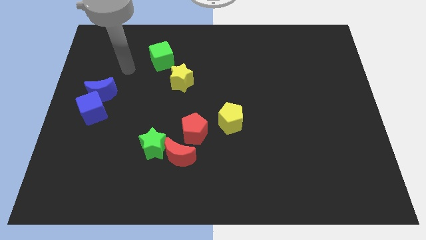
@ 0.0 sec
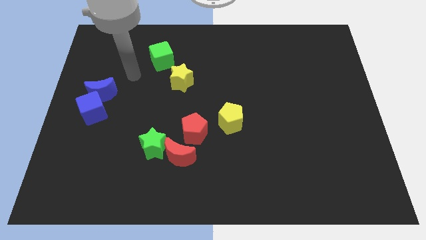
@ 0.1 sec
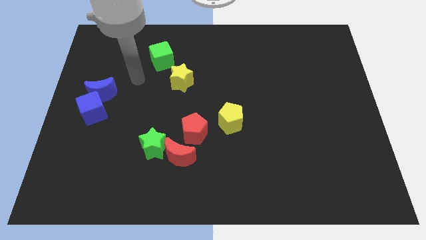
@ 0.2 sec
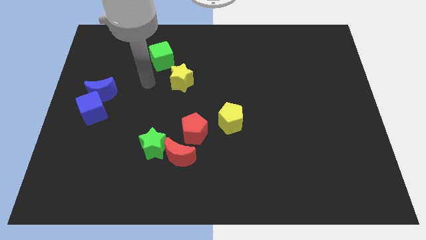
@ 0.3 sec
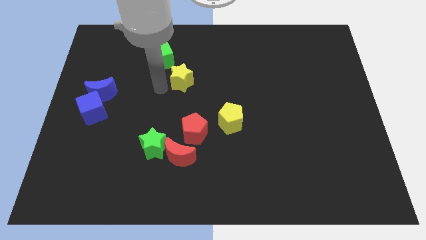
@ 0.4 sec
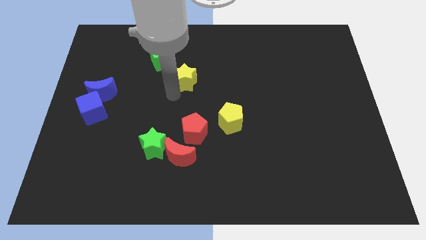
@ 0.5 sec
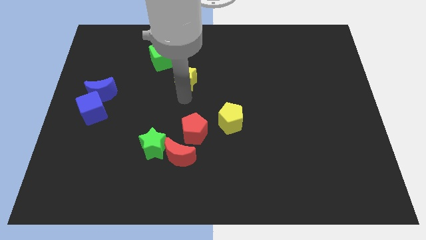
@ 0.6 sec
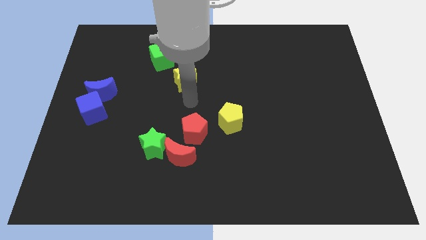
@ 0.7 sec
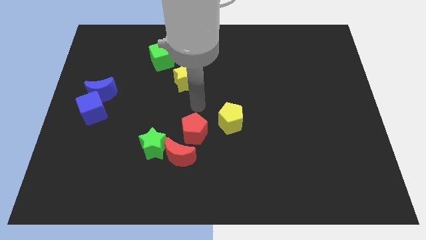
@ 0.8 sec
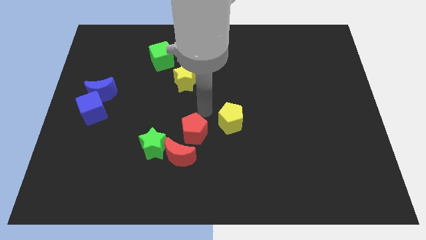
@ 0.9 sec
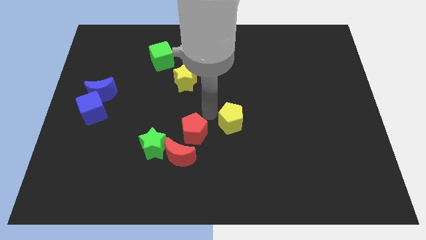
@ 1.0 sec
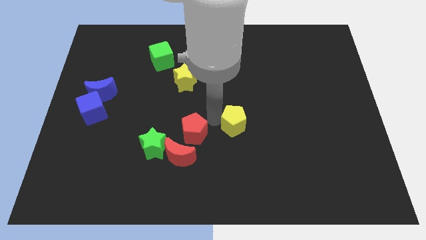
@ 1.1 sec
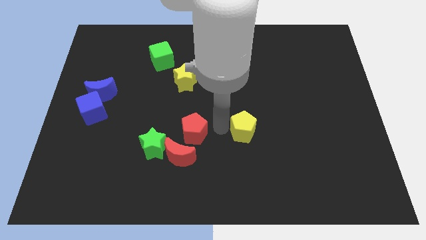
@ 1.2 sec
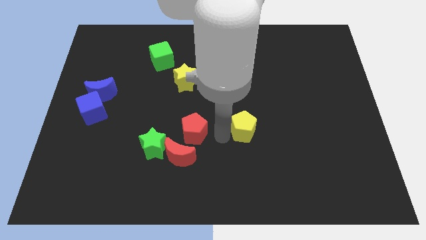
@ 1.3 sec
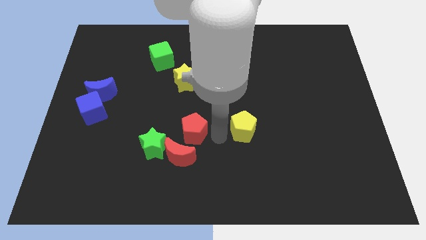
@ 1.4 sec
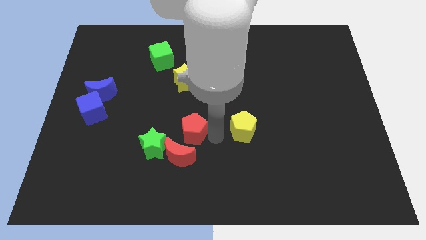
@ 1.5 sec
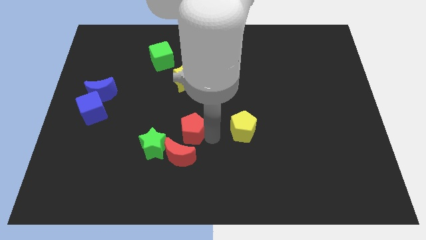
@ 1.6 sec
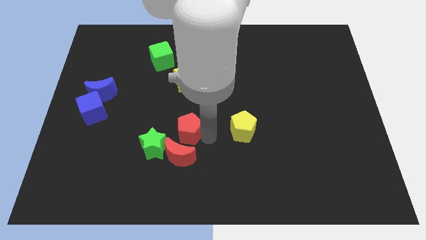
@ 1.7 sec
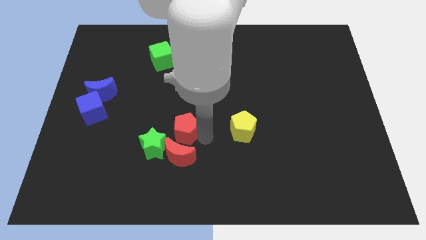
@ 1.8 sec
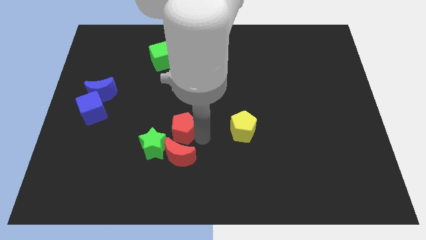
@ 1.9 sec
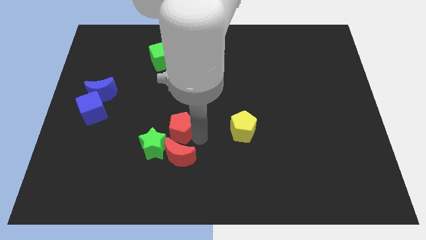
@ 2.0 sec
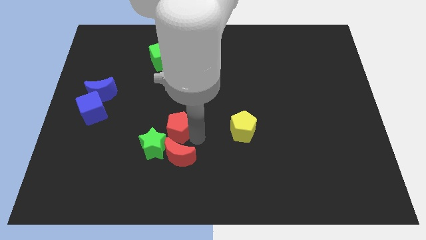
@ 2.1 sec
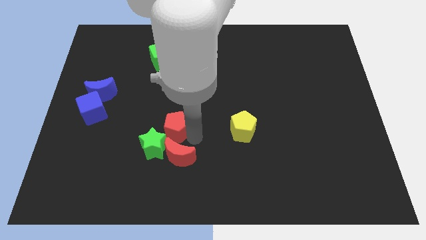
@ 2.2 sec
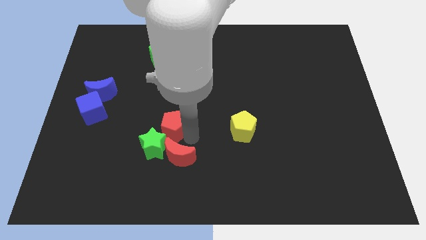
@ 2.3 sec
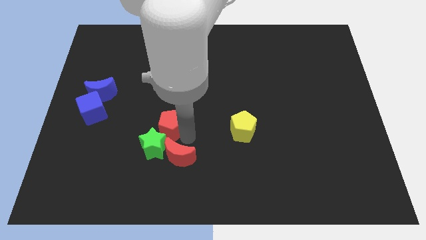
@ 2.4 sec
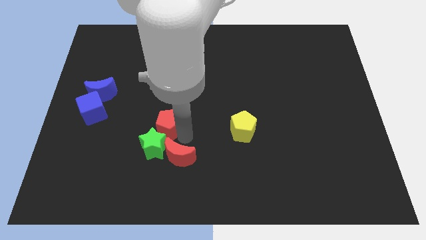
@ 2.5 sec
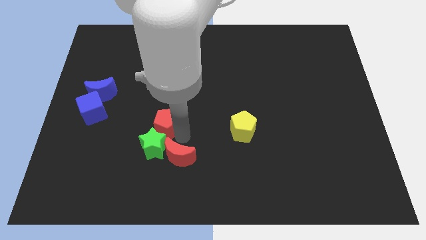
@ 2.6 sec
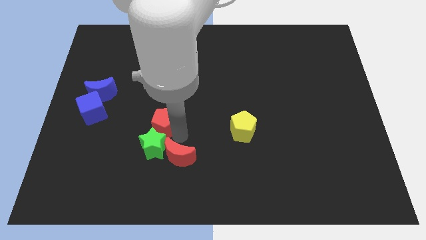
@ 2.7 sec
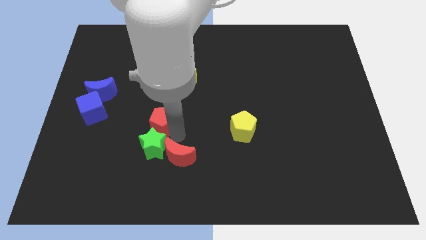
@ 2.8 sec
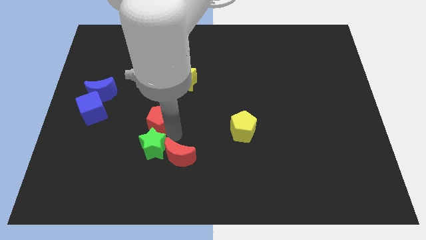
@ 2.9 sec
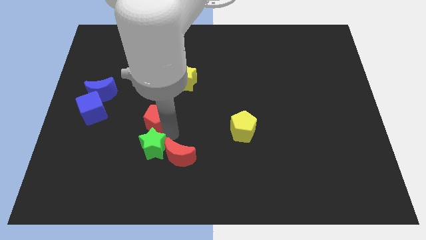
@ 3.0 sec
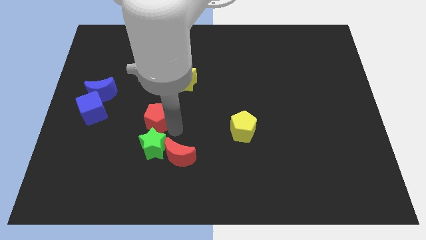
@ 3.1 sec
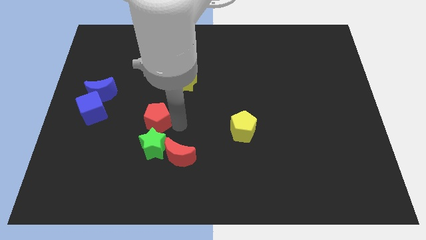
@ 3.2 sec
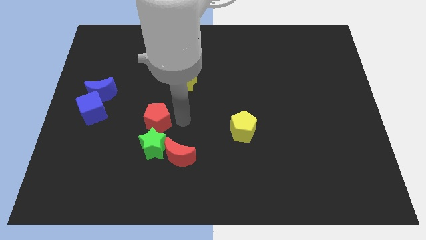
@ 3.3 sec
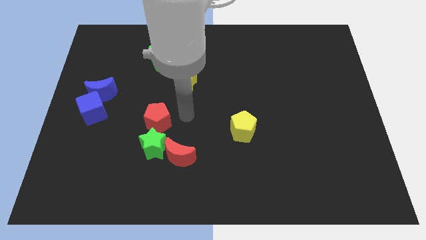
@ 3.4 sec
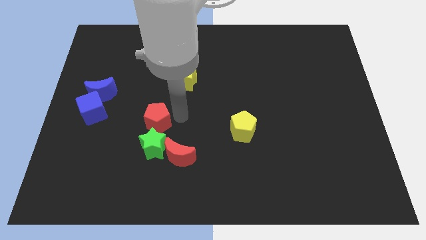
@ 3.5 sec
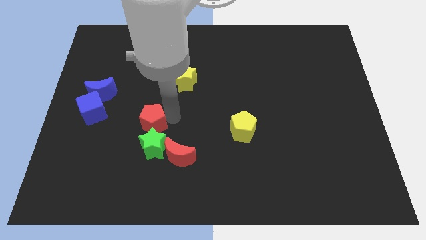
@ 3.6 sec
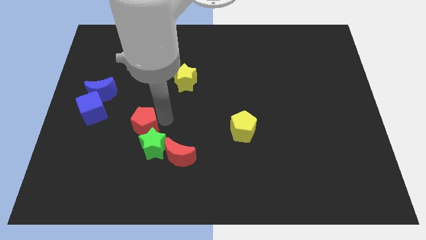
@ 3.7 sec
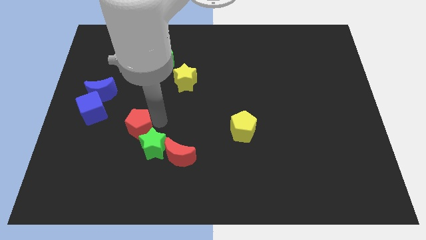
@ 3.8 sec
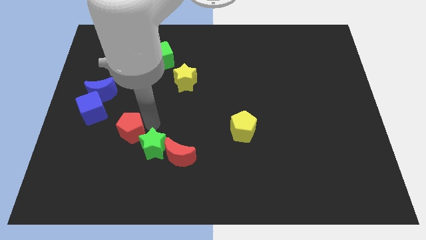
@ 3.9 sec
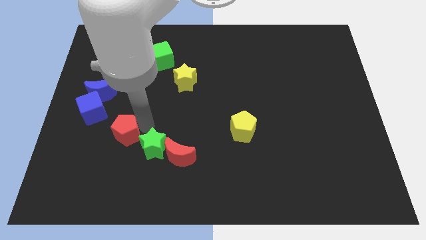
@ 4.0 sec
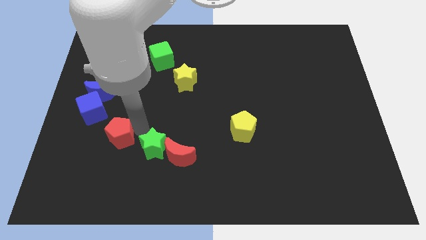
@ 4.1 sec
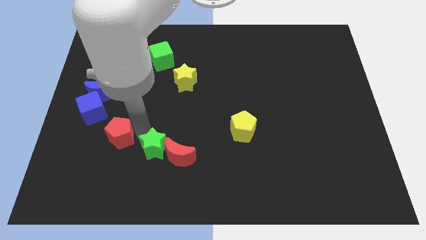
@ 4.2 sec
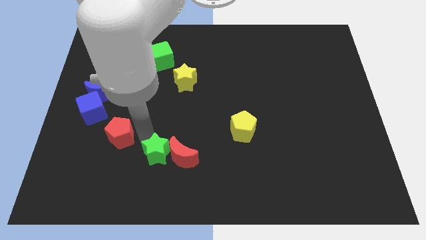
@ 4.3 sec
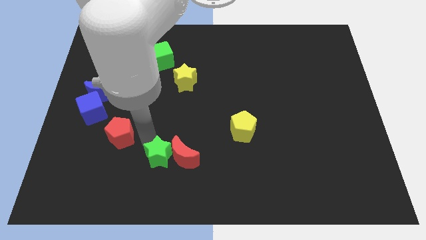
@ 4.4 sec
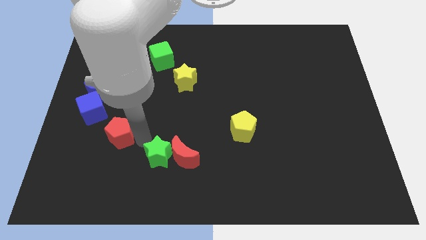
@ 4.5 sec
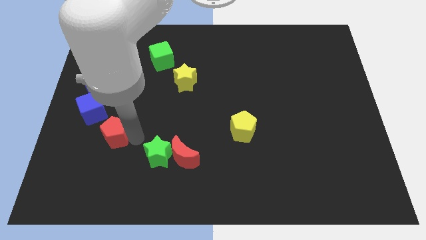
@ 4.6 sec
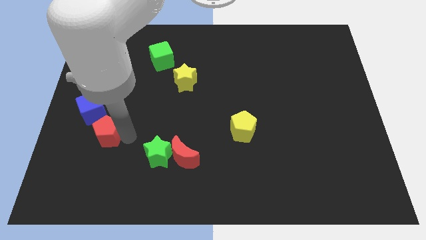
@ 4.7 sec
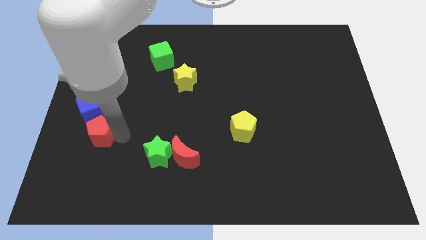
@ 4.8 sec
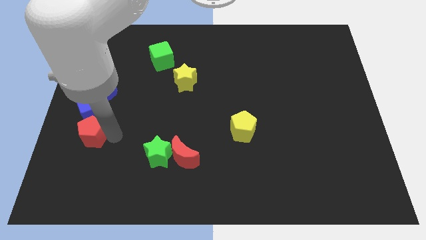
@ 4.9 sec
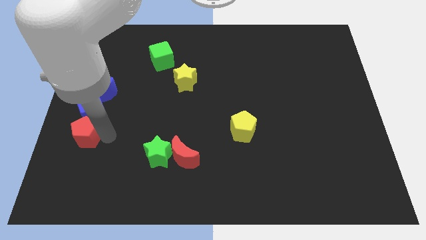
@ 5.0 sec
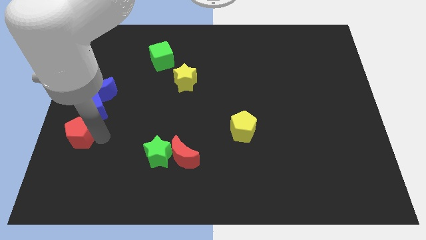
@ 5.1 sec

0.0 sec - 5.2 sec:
move the red pentagon to the center left

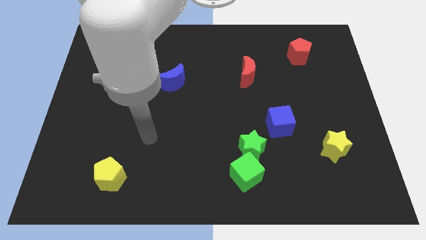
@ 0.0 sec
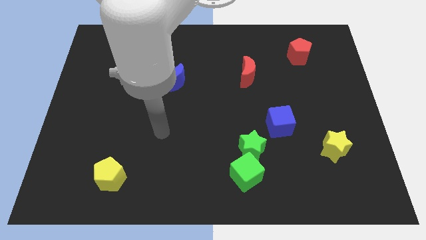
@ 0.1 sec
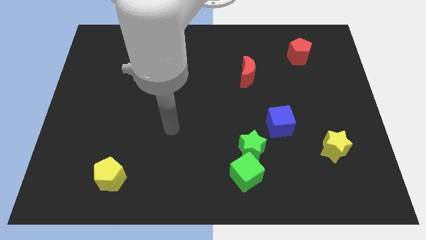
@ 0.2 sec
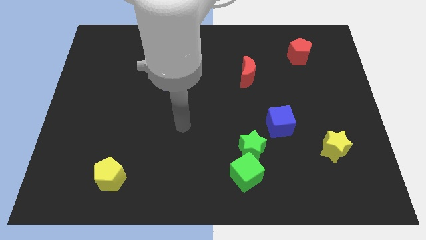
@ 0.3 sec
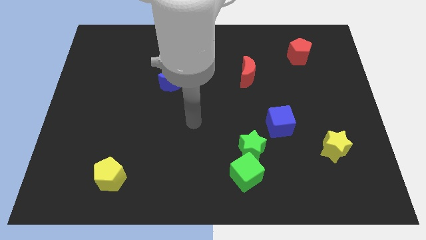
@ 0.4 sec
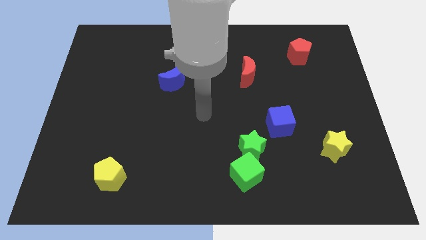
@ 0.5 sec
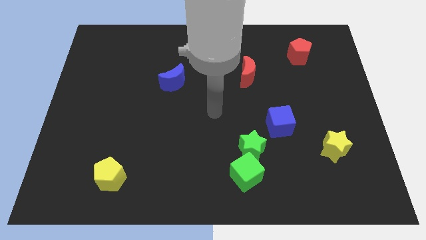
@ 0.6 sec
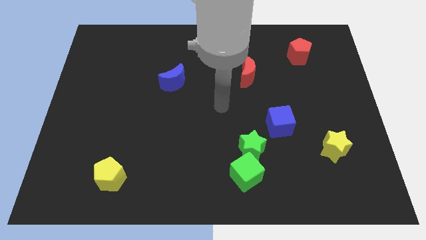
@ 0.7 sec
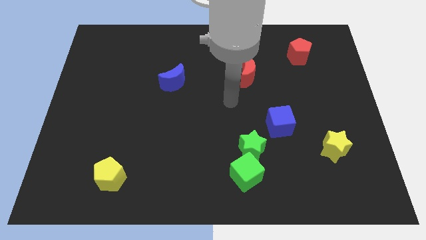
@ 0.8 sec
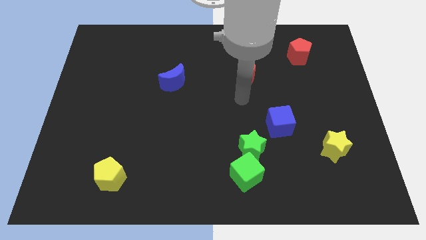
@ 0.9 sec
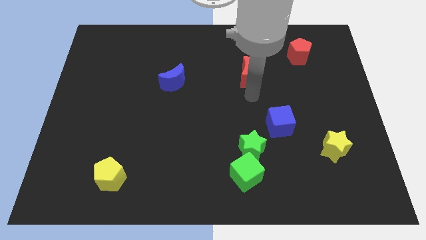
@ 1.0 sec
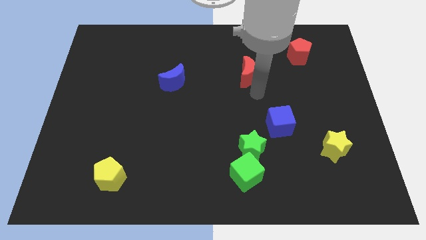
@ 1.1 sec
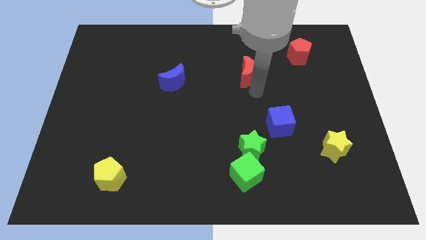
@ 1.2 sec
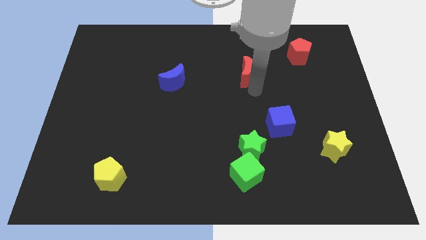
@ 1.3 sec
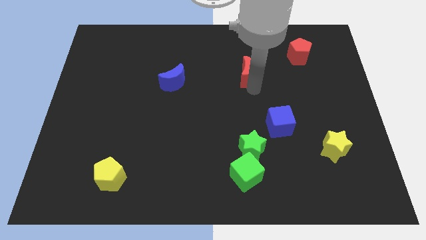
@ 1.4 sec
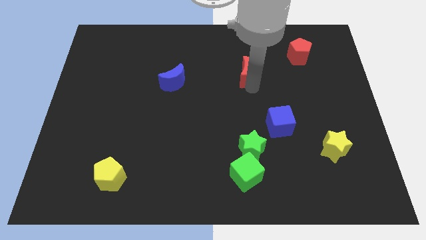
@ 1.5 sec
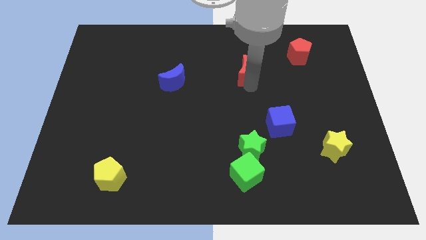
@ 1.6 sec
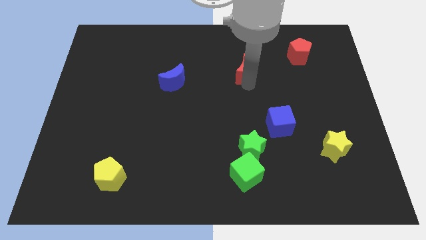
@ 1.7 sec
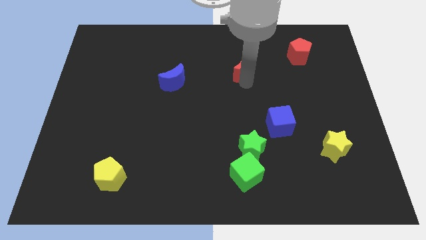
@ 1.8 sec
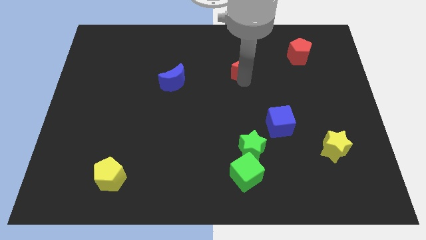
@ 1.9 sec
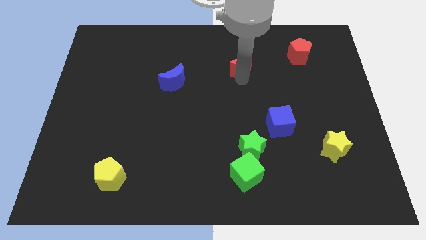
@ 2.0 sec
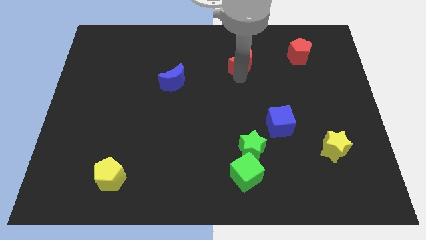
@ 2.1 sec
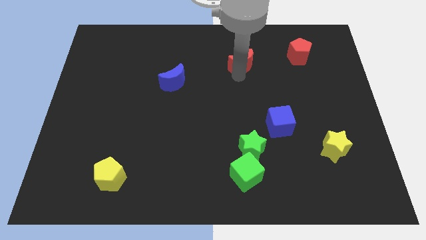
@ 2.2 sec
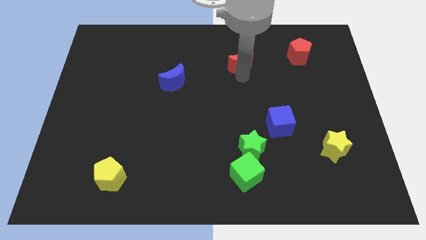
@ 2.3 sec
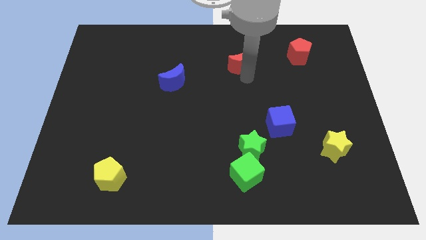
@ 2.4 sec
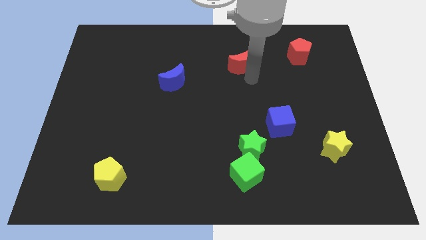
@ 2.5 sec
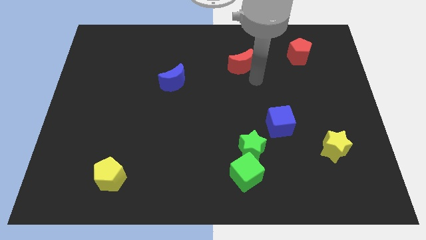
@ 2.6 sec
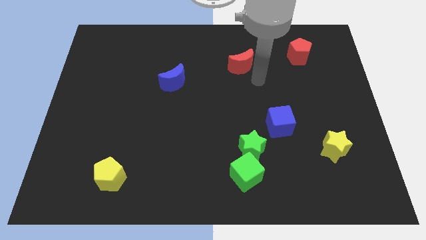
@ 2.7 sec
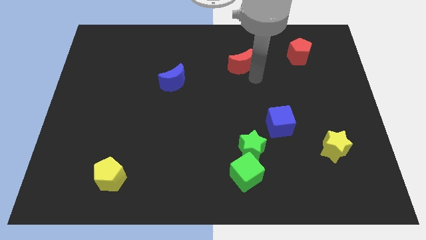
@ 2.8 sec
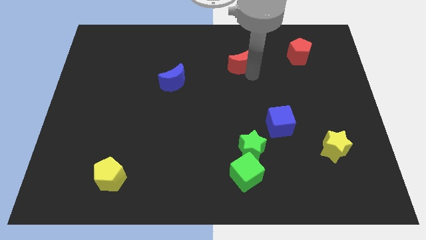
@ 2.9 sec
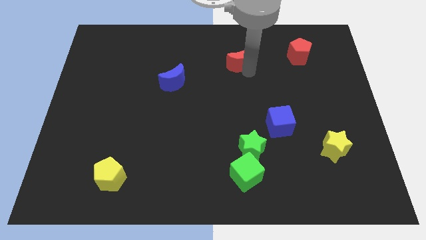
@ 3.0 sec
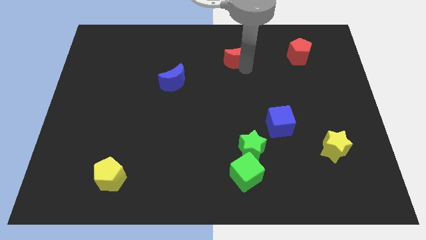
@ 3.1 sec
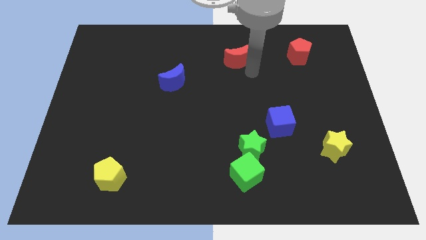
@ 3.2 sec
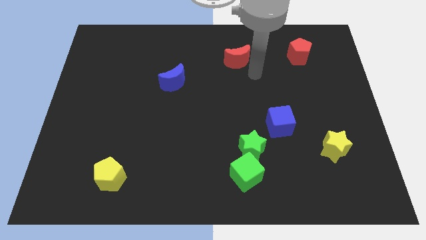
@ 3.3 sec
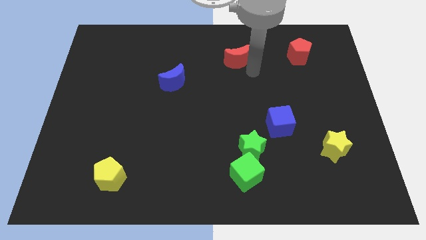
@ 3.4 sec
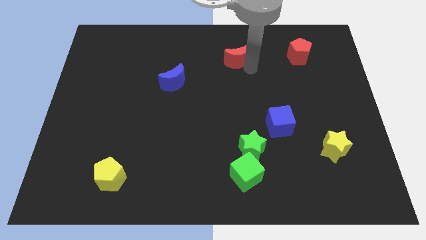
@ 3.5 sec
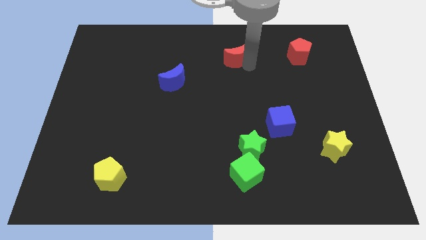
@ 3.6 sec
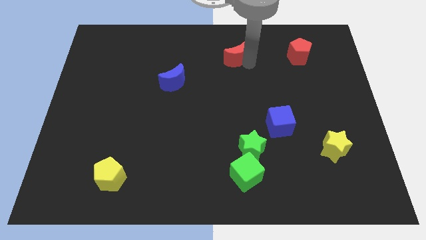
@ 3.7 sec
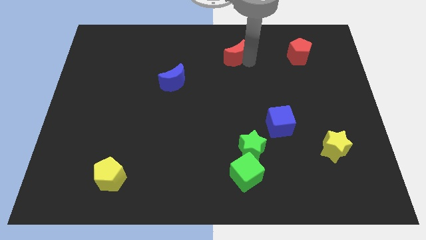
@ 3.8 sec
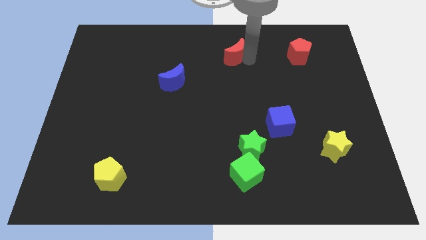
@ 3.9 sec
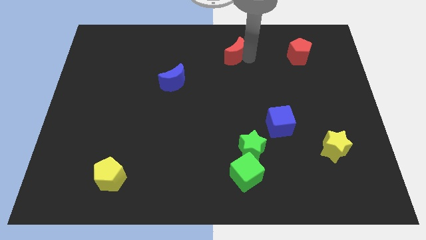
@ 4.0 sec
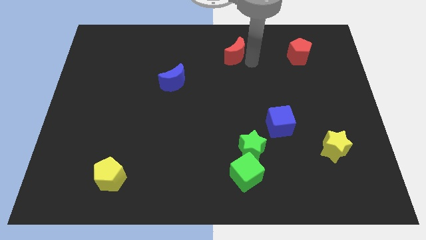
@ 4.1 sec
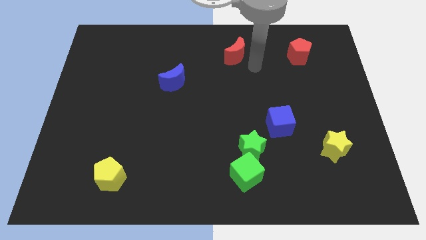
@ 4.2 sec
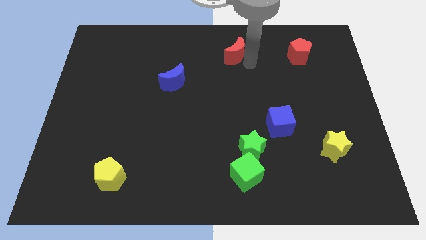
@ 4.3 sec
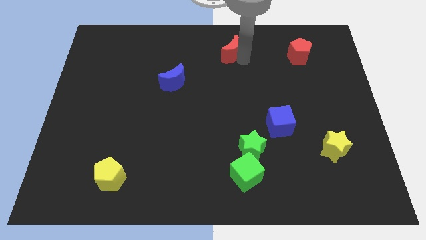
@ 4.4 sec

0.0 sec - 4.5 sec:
push the red moon to the top
